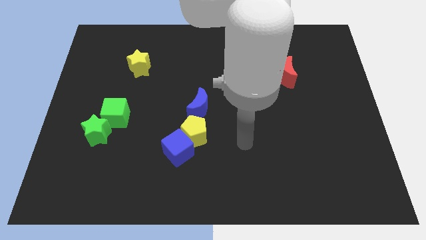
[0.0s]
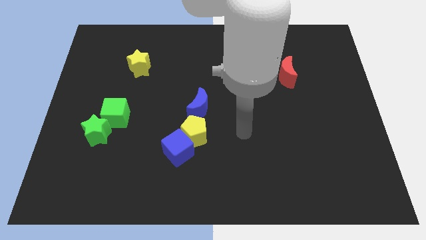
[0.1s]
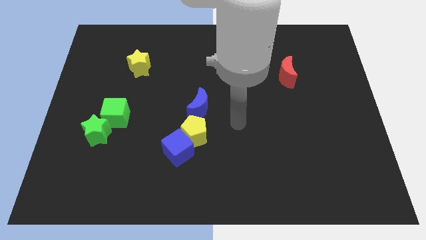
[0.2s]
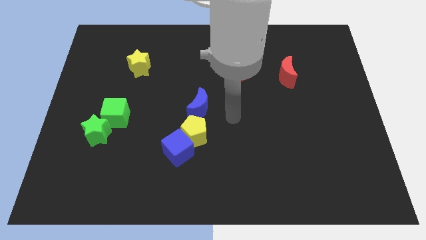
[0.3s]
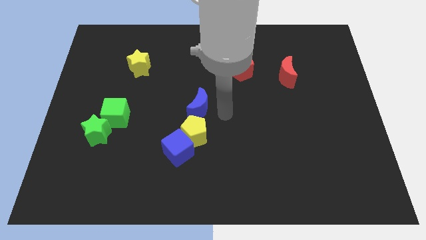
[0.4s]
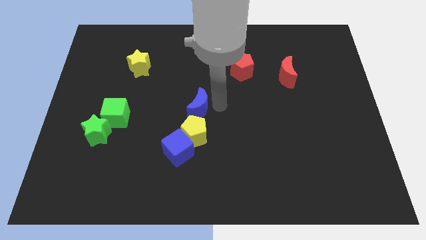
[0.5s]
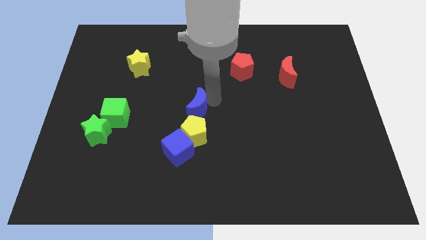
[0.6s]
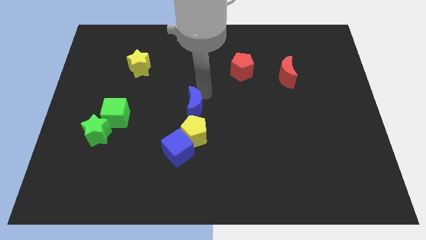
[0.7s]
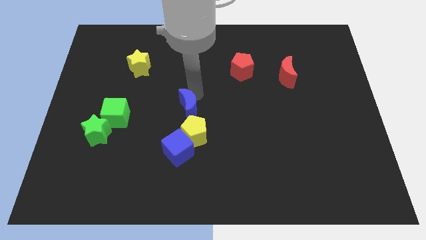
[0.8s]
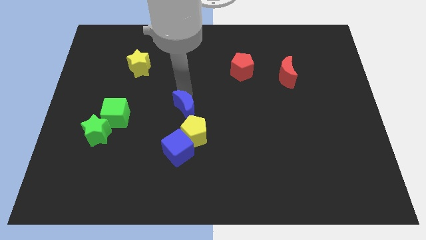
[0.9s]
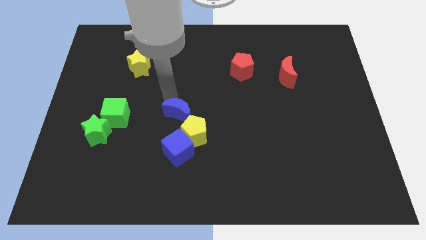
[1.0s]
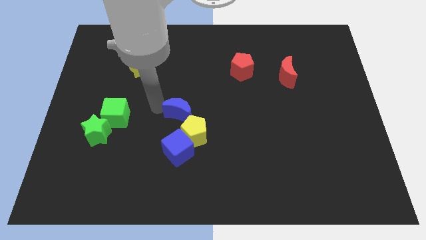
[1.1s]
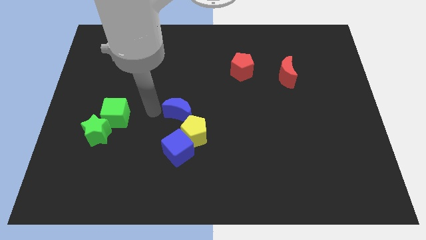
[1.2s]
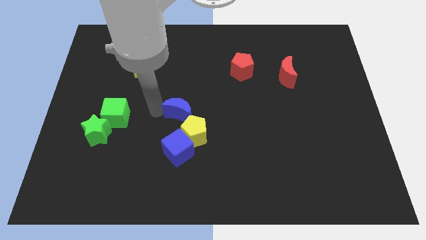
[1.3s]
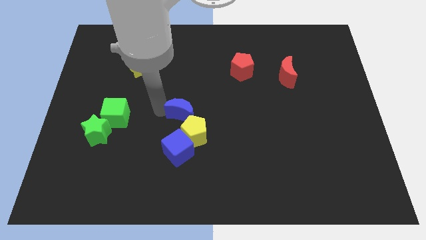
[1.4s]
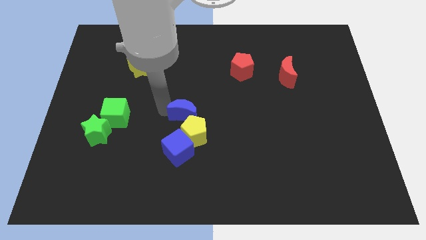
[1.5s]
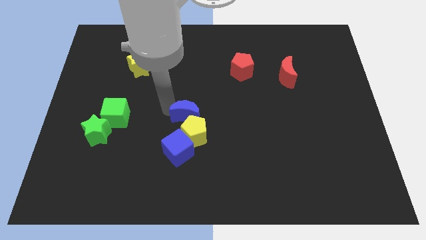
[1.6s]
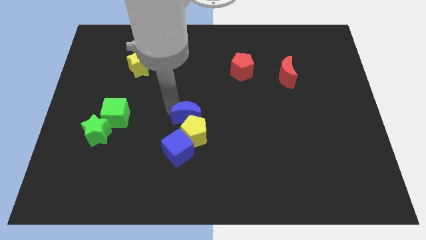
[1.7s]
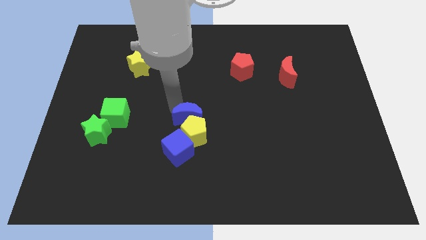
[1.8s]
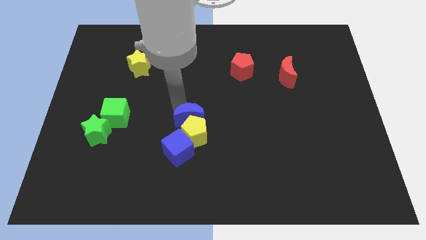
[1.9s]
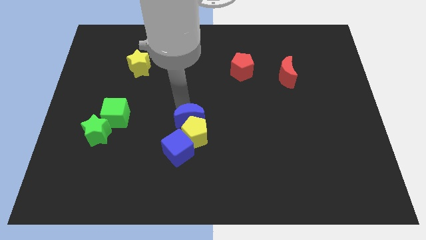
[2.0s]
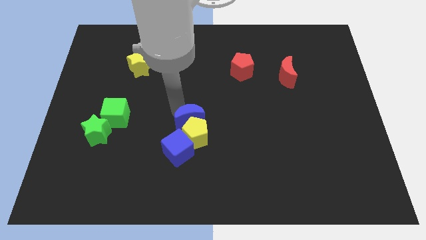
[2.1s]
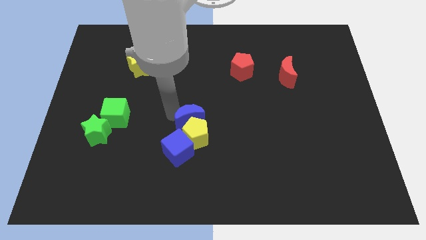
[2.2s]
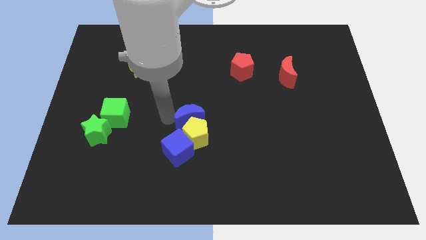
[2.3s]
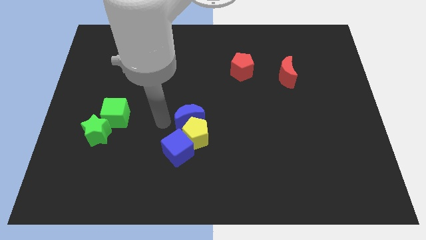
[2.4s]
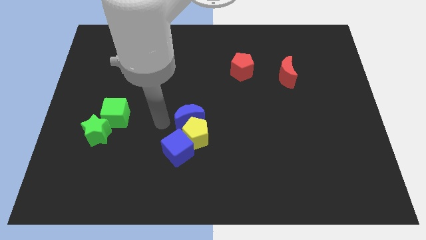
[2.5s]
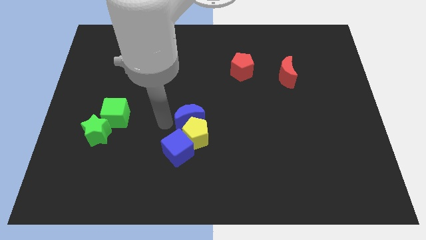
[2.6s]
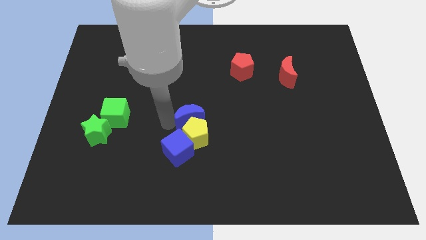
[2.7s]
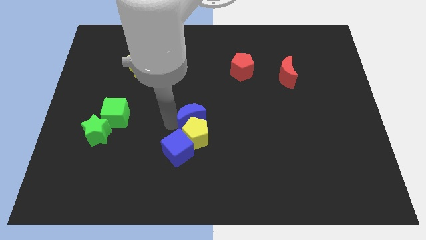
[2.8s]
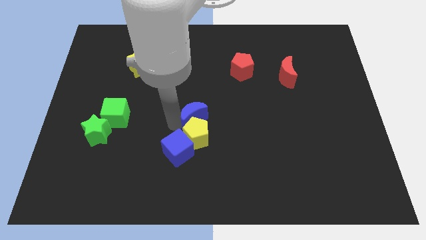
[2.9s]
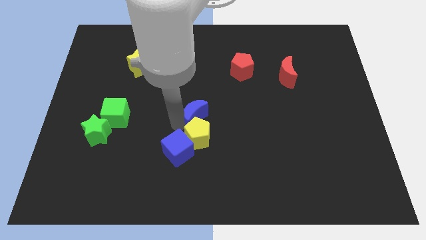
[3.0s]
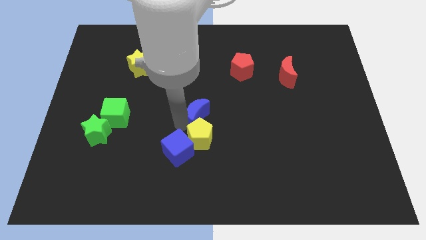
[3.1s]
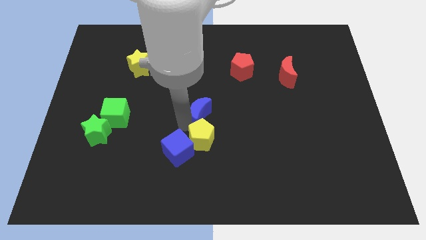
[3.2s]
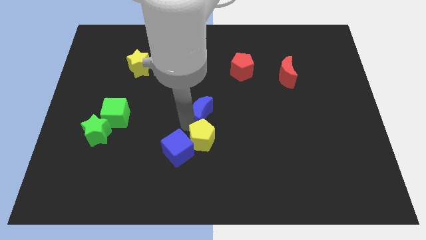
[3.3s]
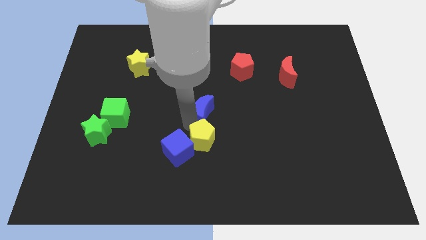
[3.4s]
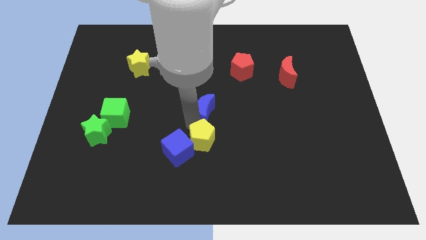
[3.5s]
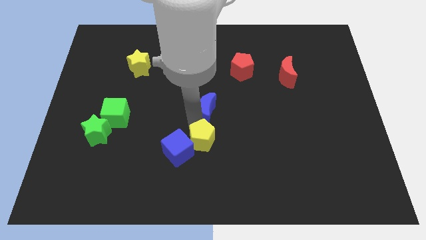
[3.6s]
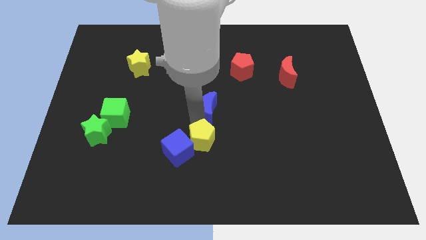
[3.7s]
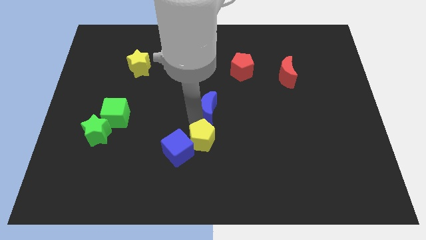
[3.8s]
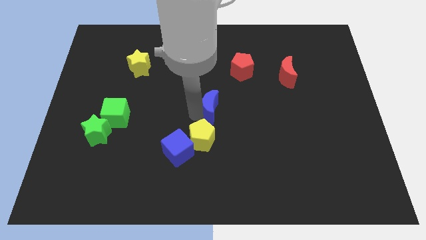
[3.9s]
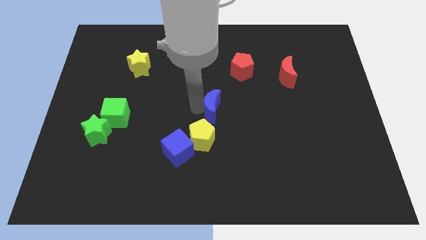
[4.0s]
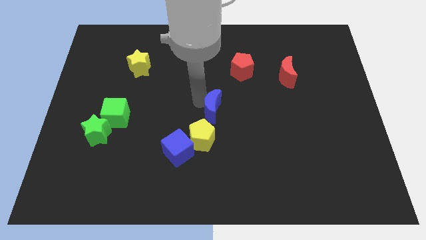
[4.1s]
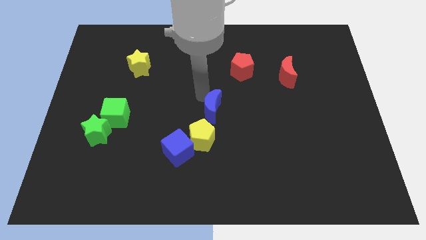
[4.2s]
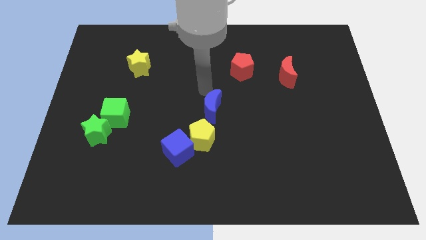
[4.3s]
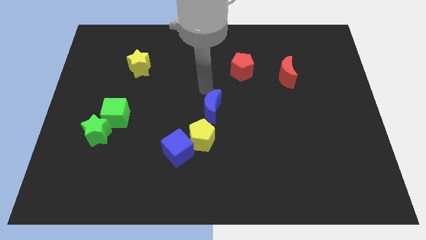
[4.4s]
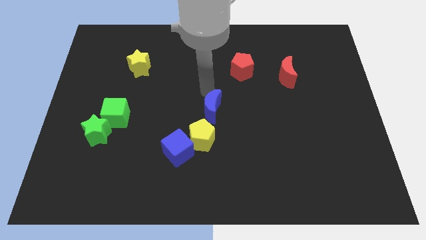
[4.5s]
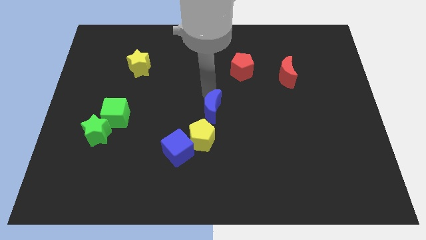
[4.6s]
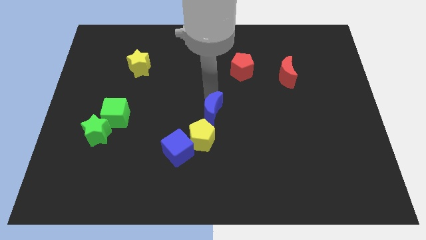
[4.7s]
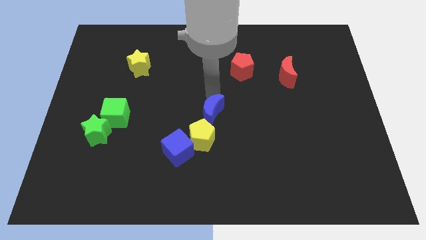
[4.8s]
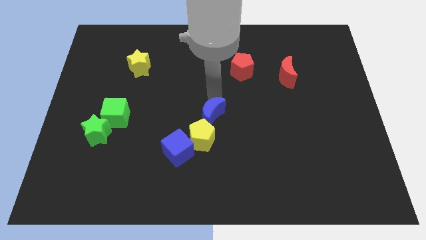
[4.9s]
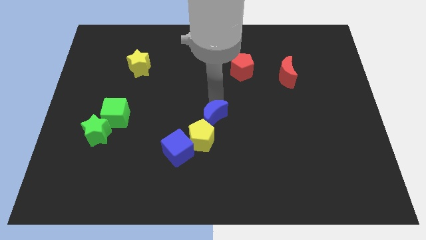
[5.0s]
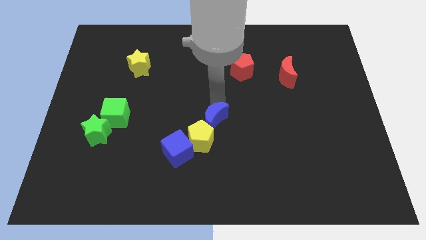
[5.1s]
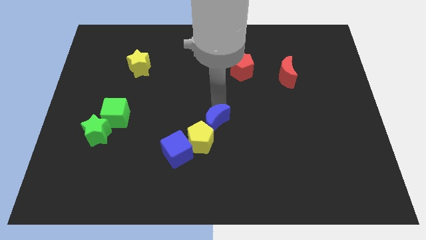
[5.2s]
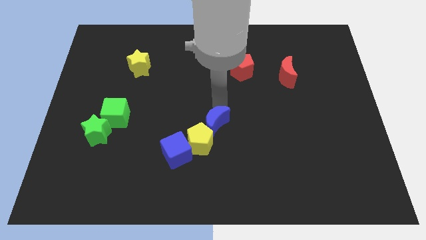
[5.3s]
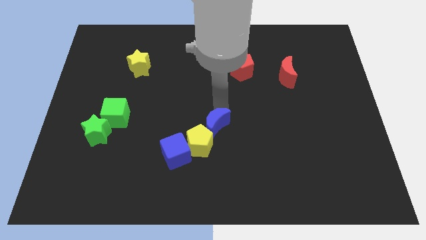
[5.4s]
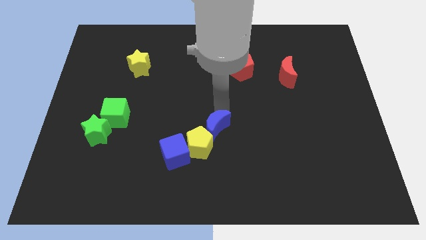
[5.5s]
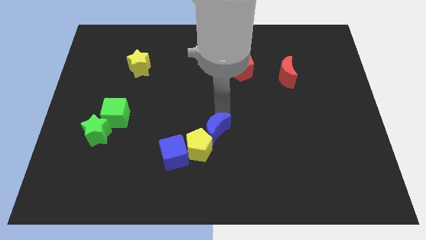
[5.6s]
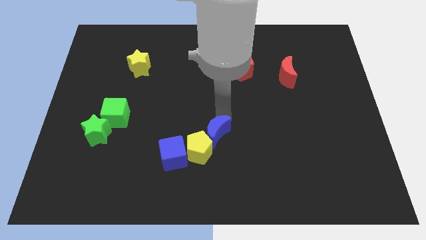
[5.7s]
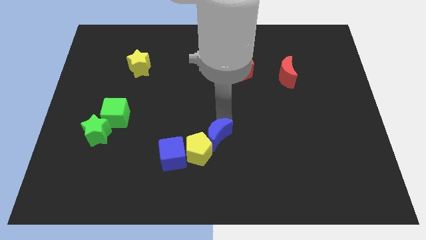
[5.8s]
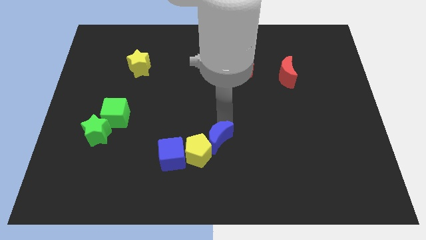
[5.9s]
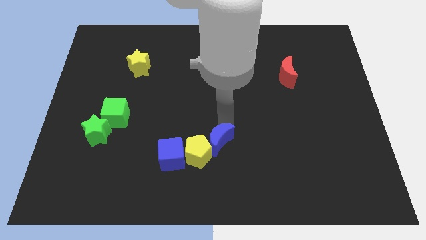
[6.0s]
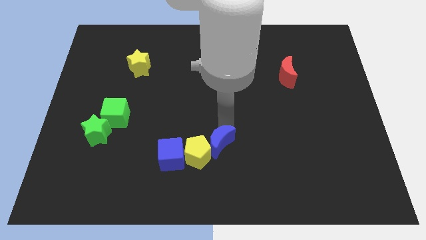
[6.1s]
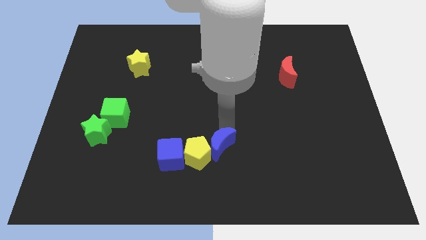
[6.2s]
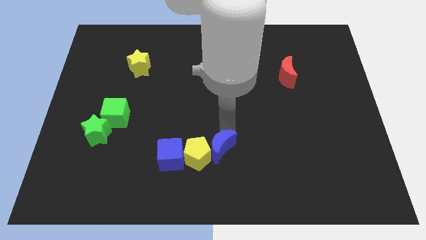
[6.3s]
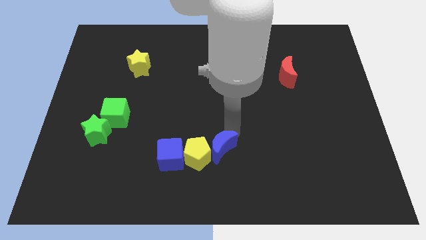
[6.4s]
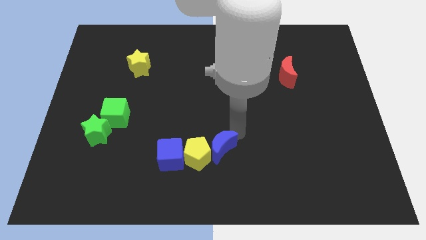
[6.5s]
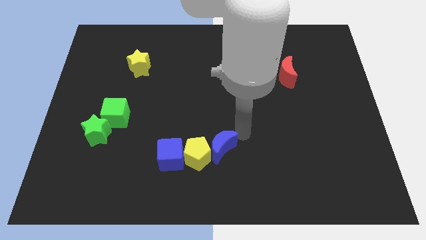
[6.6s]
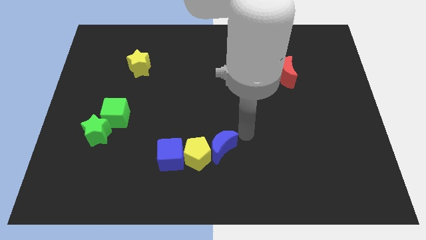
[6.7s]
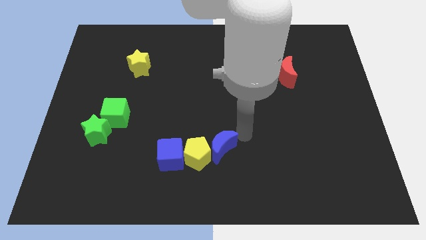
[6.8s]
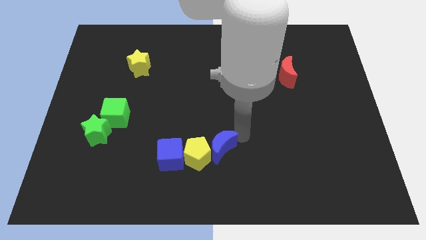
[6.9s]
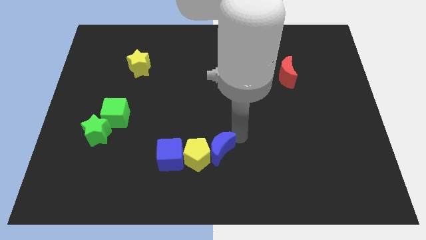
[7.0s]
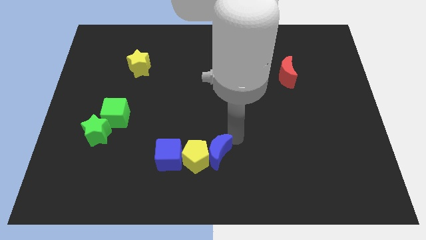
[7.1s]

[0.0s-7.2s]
slide the blue moon to the bottom
